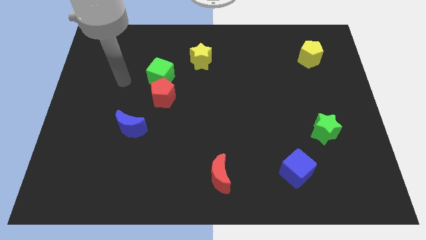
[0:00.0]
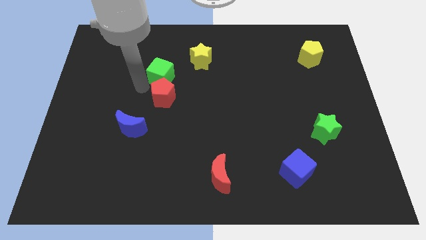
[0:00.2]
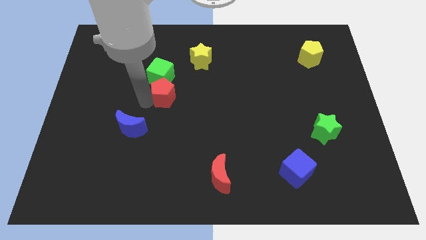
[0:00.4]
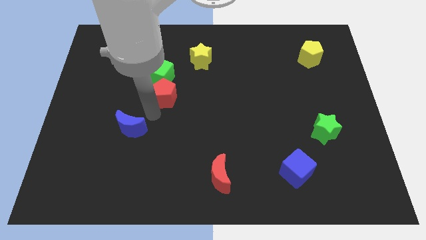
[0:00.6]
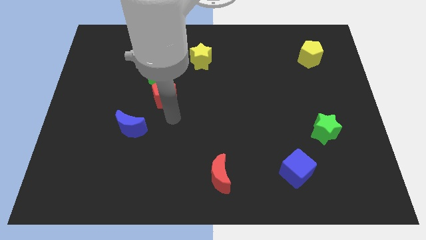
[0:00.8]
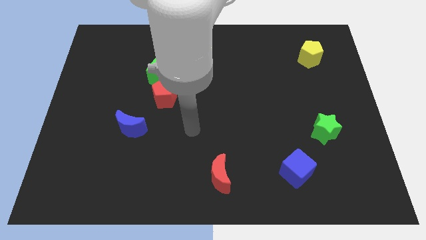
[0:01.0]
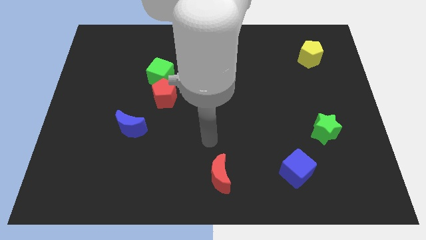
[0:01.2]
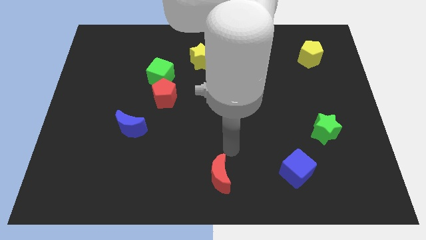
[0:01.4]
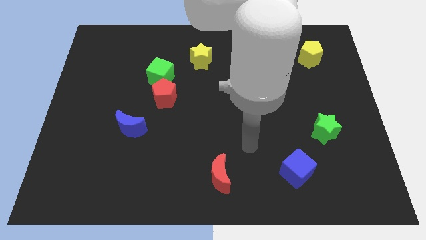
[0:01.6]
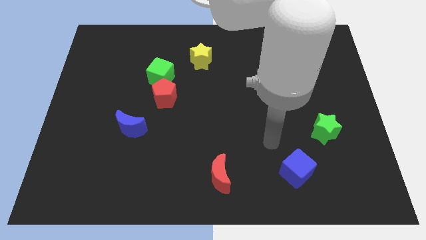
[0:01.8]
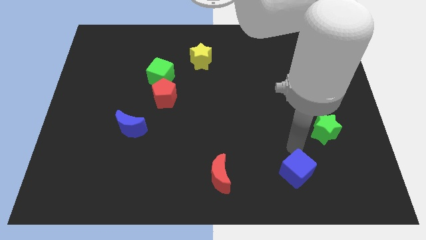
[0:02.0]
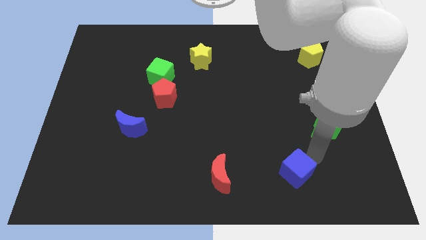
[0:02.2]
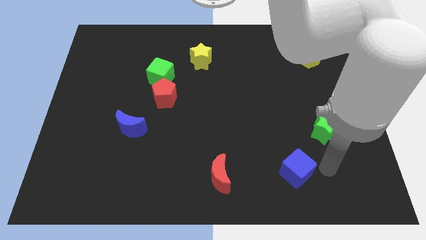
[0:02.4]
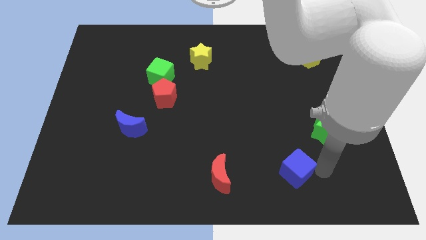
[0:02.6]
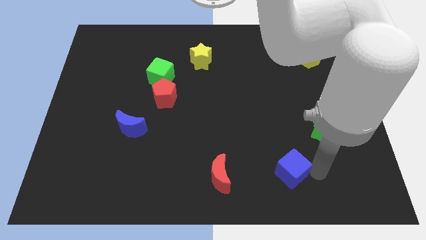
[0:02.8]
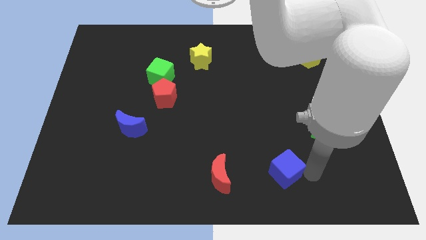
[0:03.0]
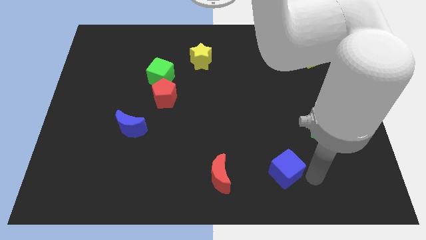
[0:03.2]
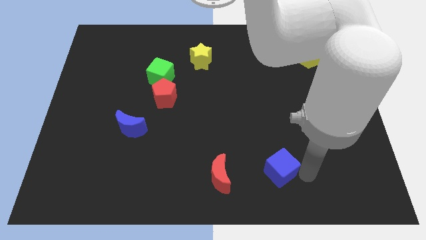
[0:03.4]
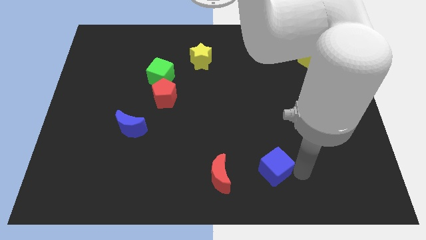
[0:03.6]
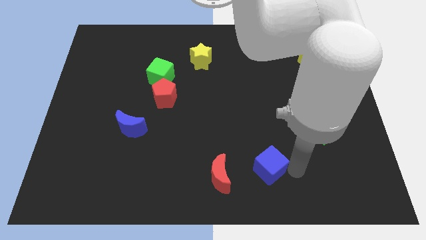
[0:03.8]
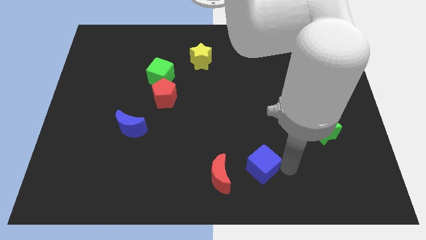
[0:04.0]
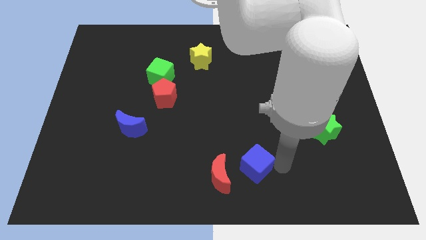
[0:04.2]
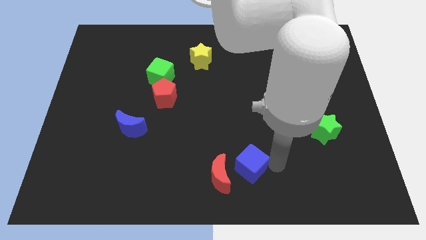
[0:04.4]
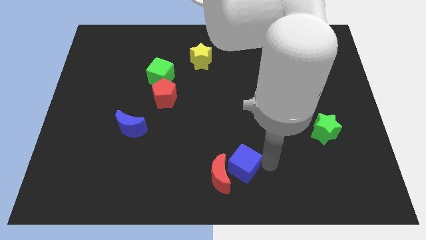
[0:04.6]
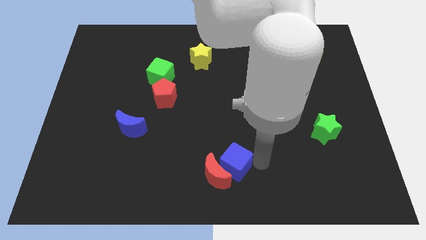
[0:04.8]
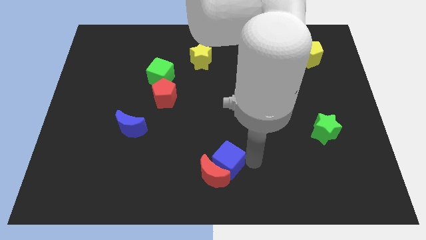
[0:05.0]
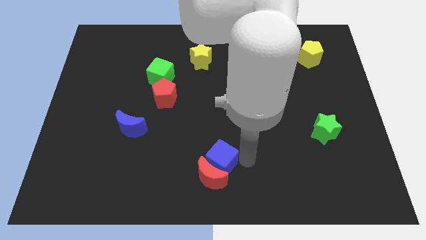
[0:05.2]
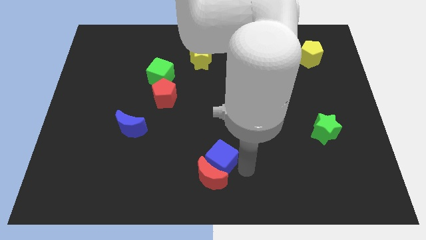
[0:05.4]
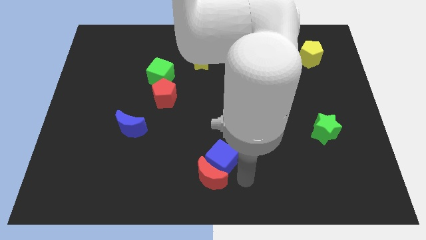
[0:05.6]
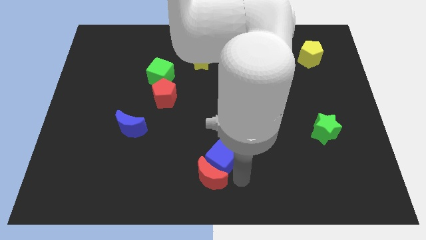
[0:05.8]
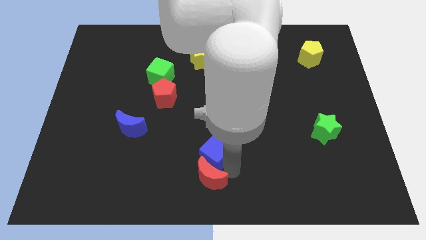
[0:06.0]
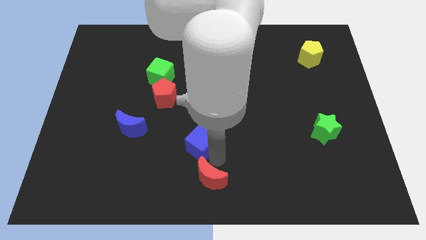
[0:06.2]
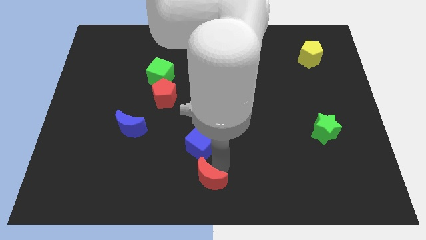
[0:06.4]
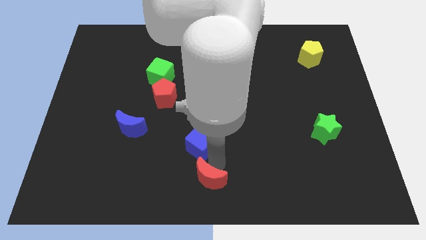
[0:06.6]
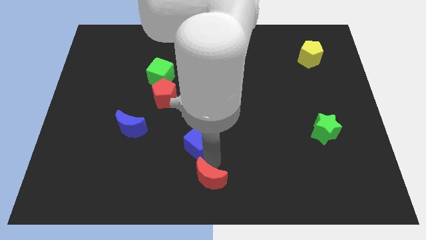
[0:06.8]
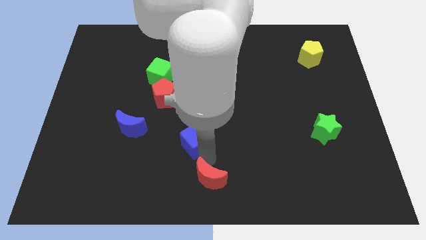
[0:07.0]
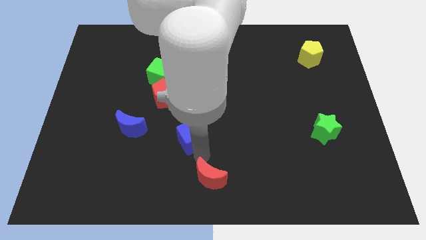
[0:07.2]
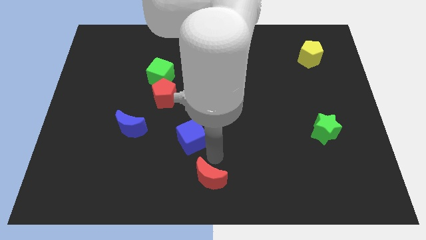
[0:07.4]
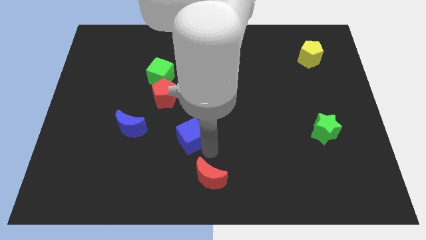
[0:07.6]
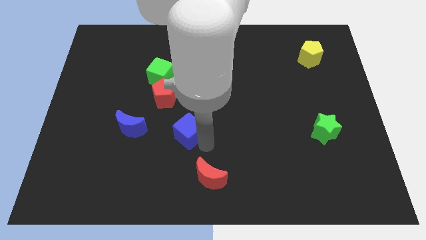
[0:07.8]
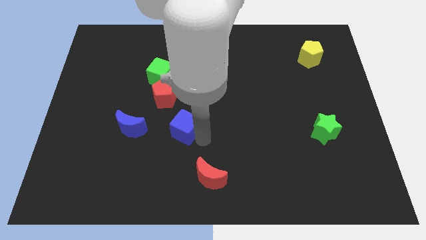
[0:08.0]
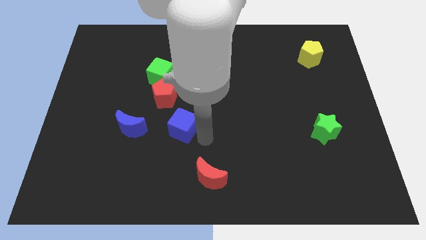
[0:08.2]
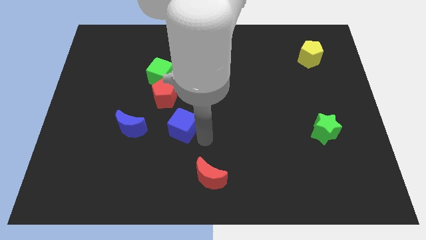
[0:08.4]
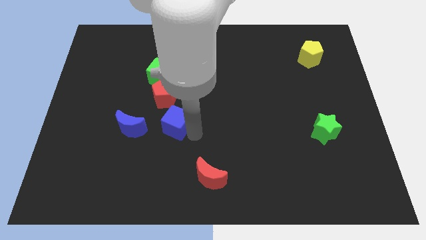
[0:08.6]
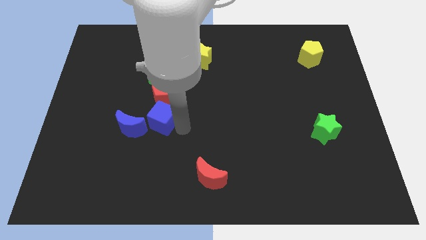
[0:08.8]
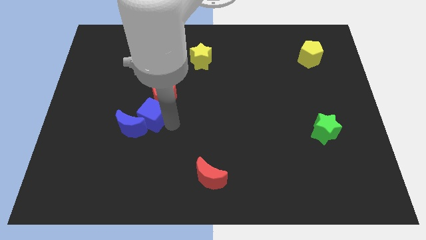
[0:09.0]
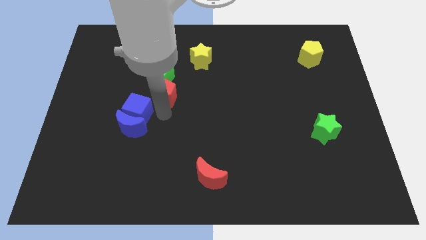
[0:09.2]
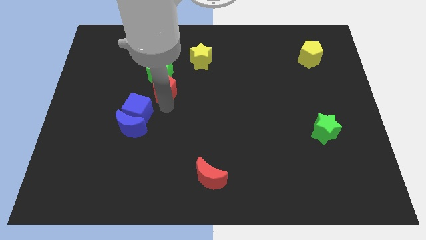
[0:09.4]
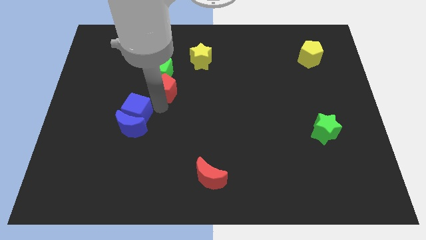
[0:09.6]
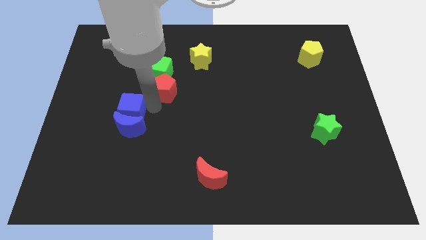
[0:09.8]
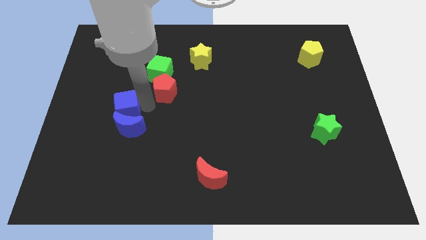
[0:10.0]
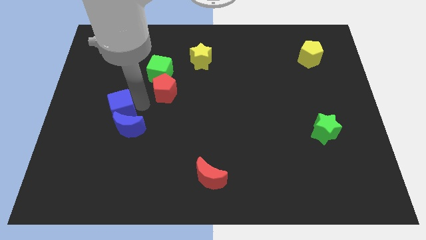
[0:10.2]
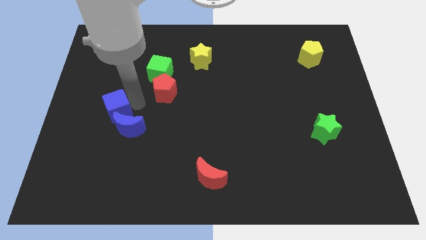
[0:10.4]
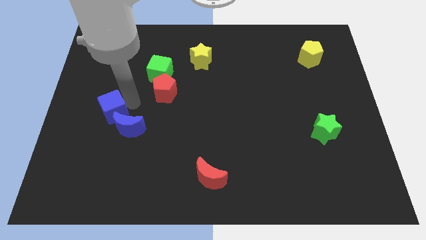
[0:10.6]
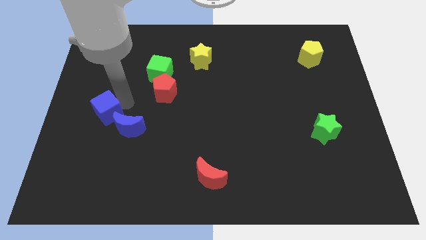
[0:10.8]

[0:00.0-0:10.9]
put the blue cube to the left side of the blue moon

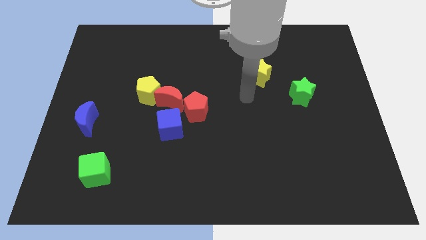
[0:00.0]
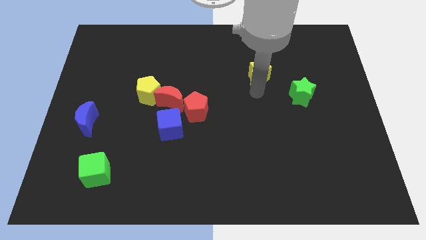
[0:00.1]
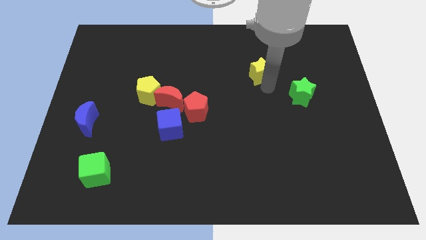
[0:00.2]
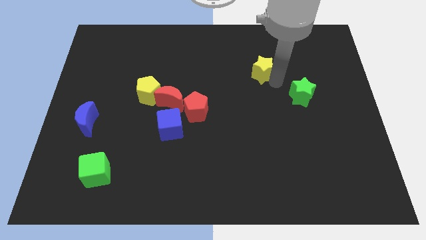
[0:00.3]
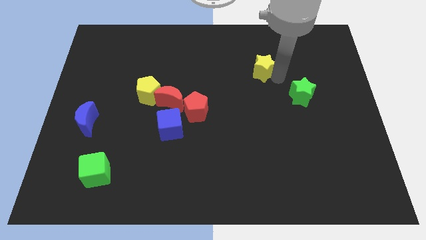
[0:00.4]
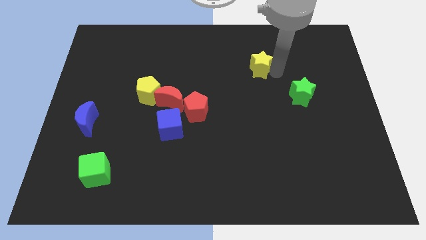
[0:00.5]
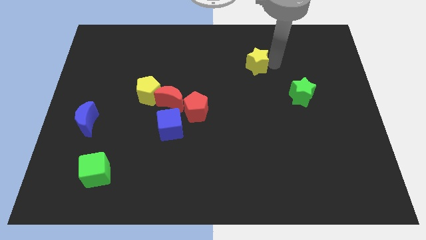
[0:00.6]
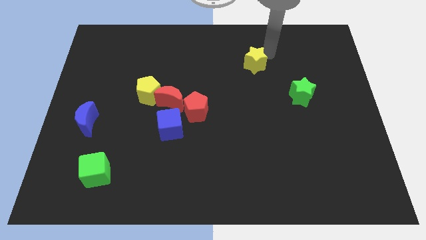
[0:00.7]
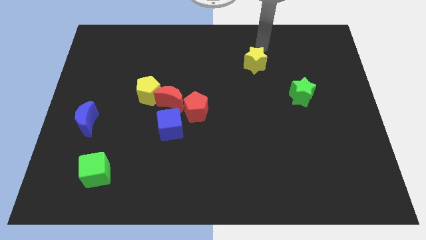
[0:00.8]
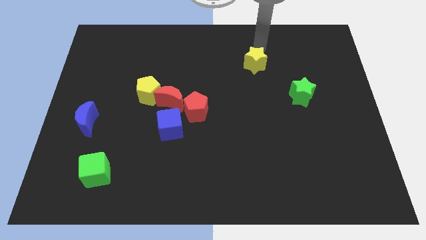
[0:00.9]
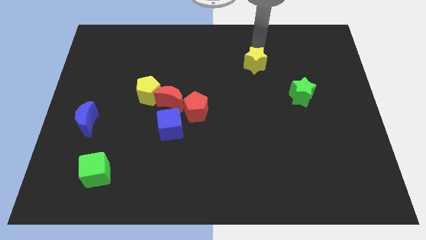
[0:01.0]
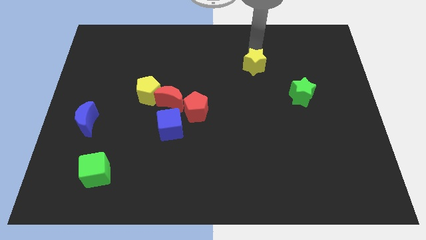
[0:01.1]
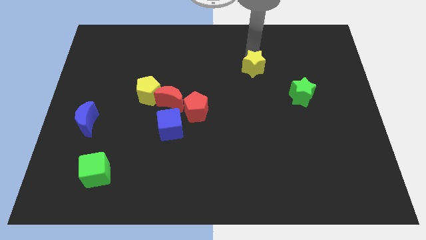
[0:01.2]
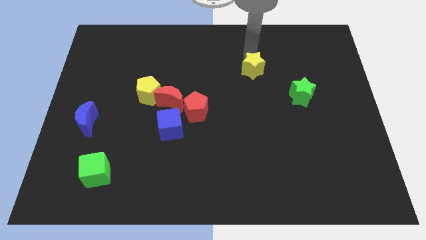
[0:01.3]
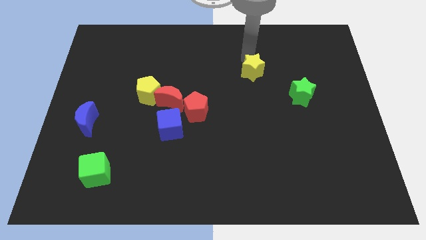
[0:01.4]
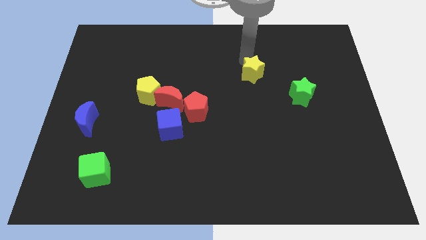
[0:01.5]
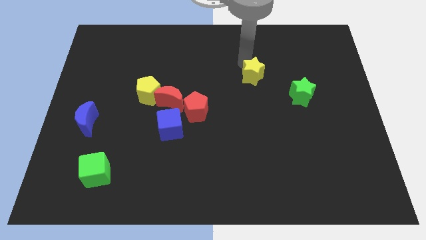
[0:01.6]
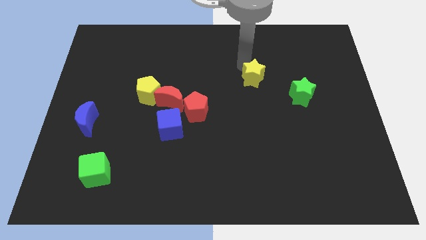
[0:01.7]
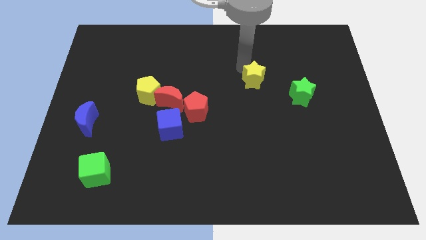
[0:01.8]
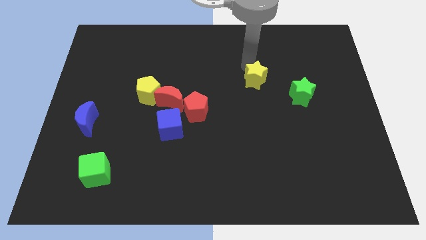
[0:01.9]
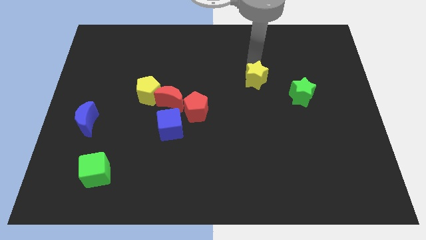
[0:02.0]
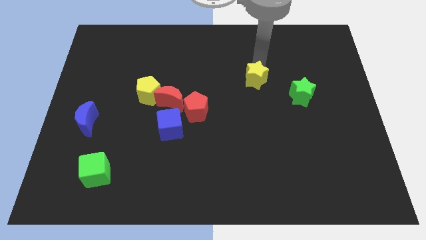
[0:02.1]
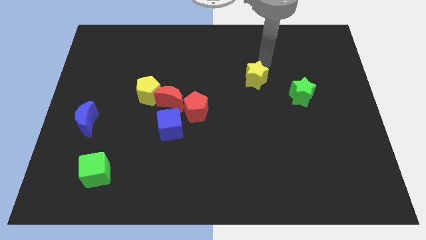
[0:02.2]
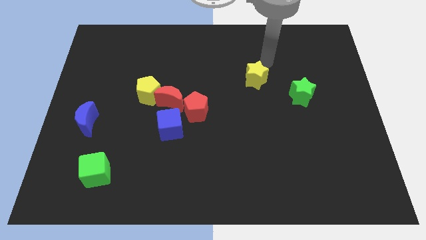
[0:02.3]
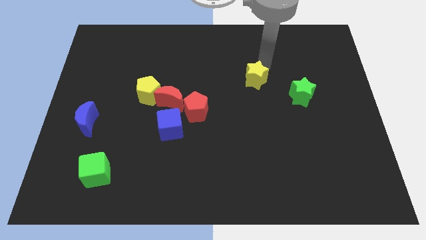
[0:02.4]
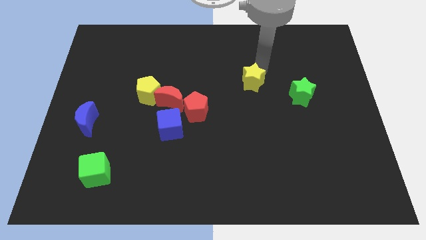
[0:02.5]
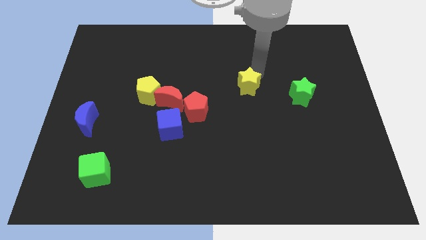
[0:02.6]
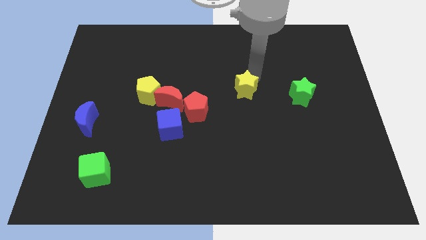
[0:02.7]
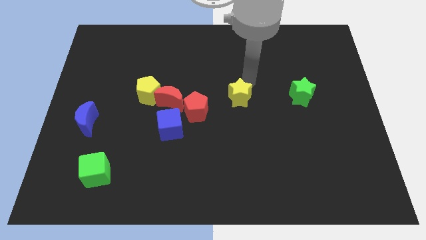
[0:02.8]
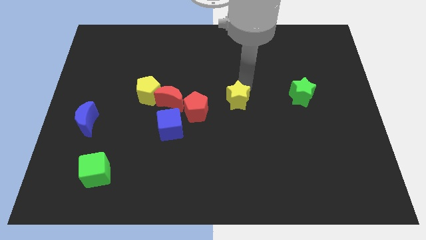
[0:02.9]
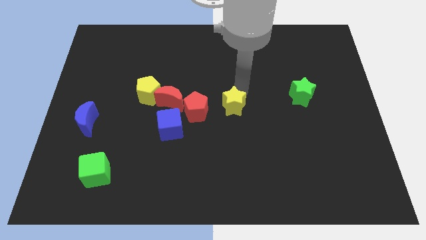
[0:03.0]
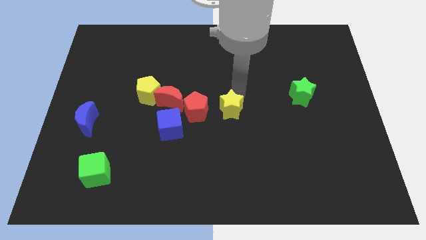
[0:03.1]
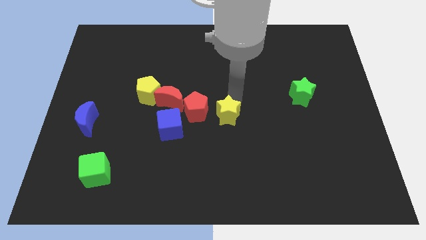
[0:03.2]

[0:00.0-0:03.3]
move the yellow star to the bottom right side of the red pentagon
